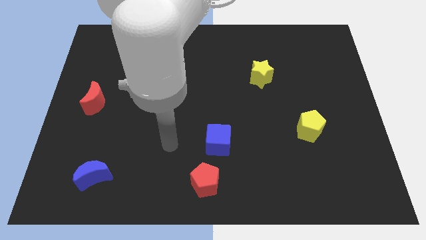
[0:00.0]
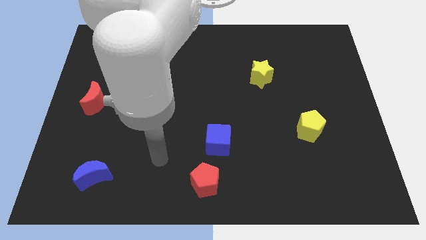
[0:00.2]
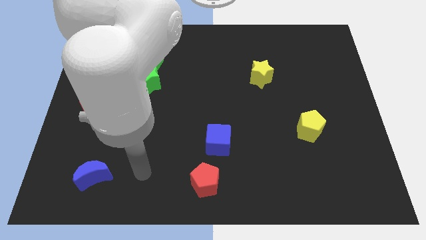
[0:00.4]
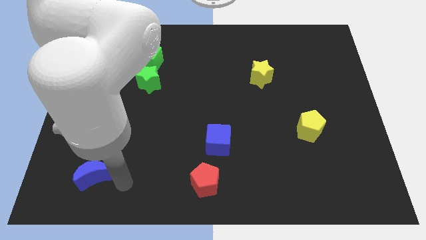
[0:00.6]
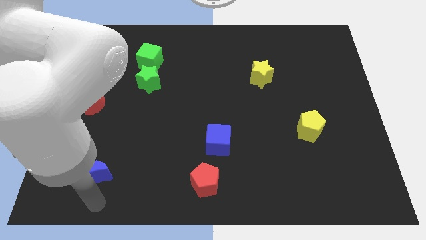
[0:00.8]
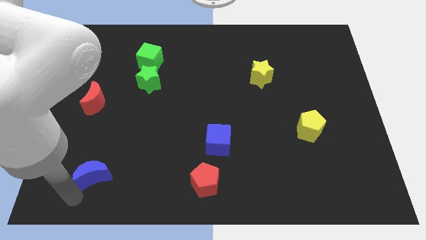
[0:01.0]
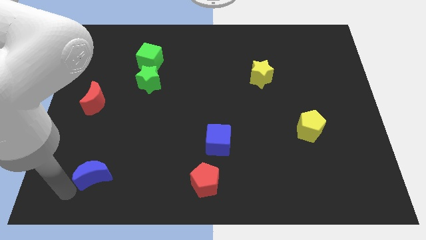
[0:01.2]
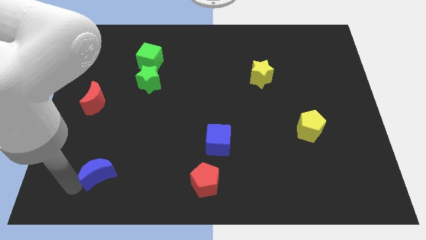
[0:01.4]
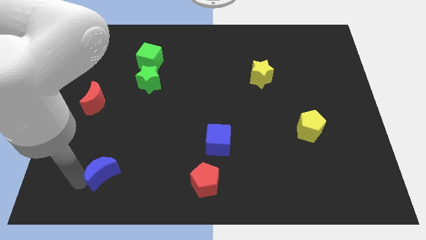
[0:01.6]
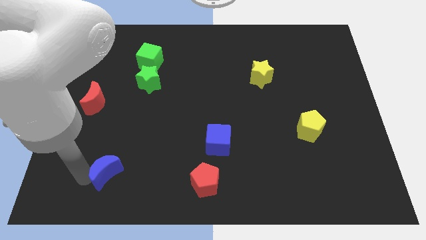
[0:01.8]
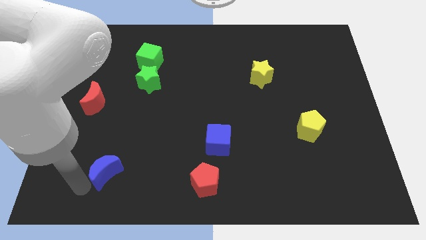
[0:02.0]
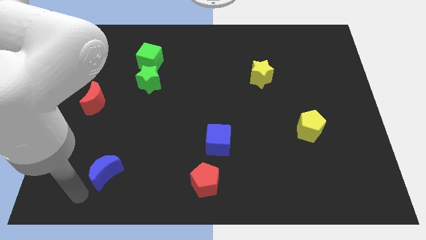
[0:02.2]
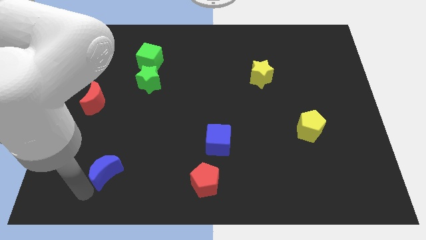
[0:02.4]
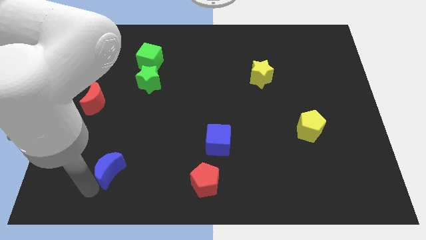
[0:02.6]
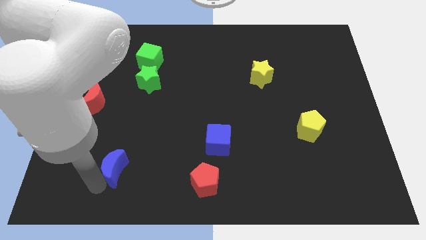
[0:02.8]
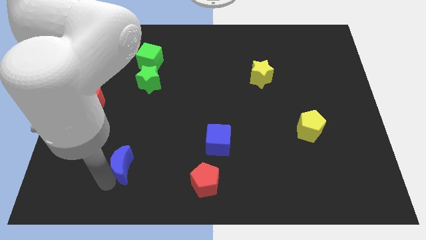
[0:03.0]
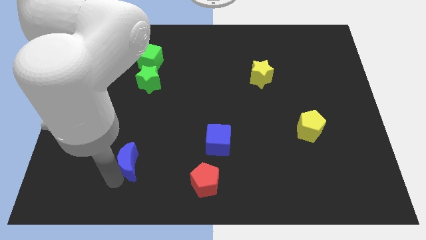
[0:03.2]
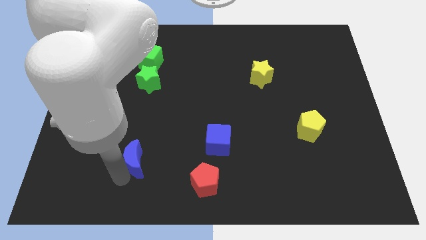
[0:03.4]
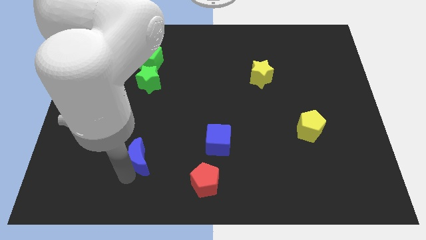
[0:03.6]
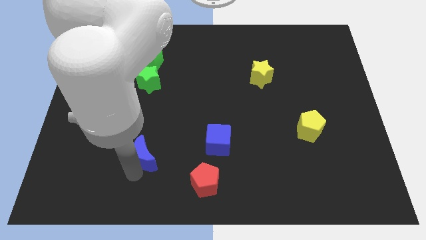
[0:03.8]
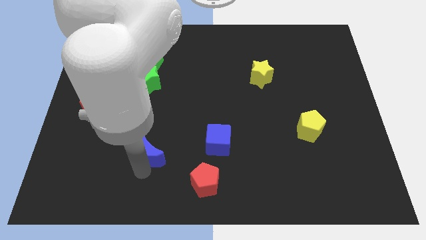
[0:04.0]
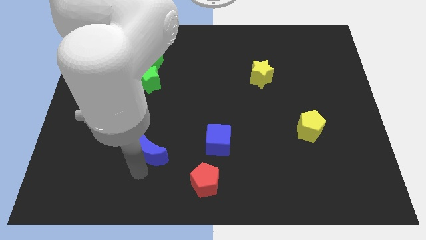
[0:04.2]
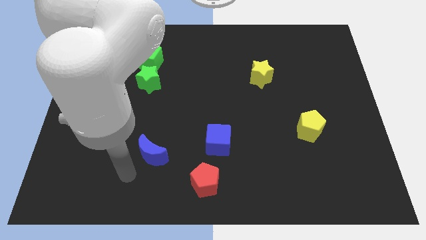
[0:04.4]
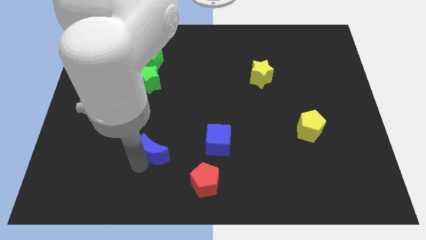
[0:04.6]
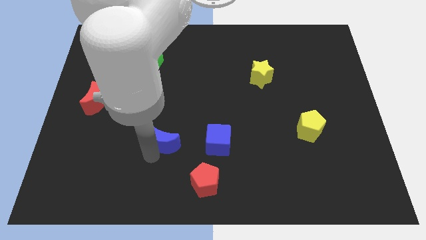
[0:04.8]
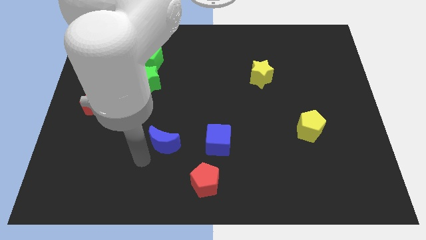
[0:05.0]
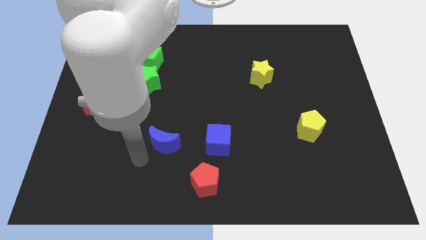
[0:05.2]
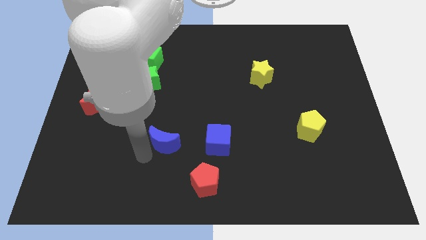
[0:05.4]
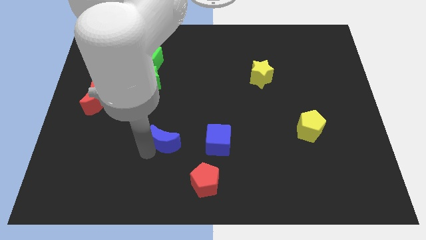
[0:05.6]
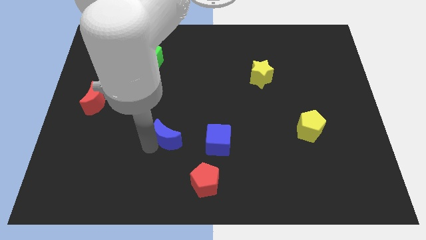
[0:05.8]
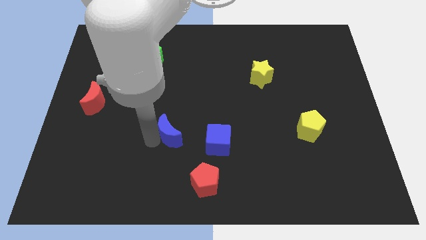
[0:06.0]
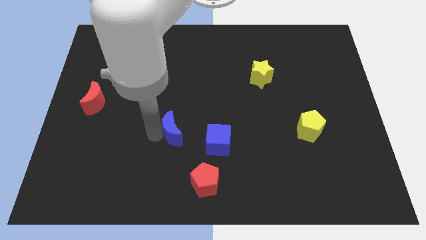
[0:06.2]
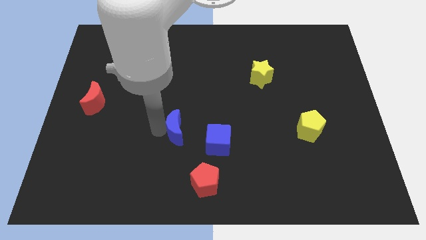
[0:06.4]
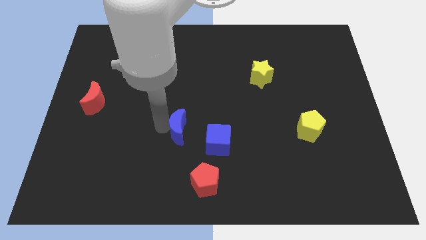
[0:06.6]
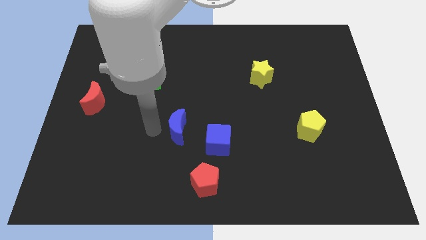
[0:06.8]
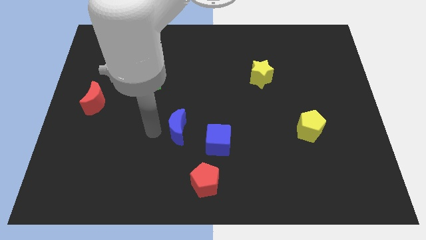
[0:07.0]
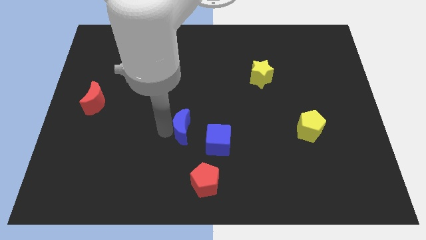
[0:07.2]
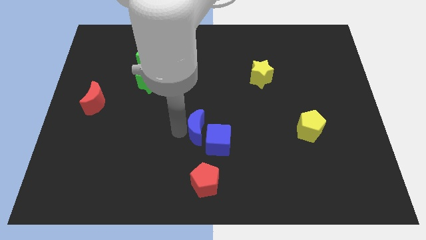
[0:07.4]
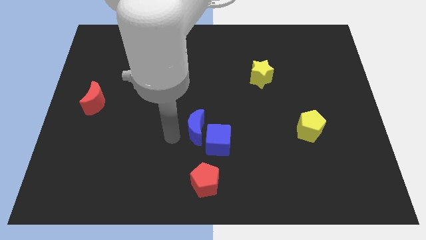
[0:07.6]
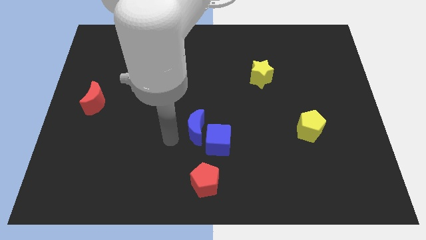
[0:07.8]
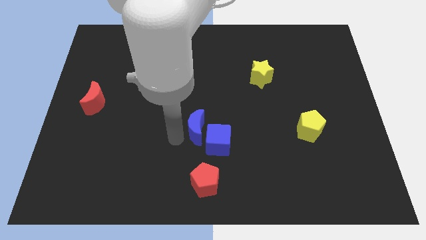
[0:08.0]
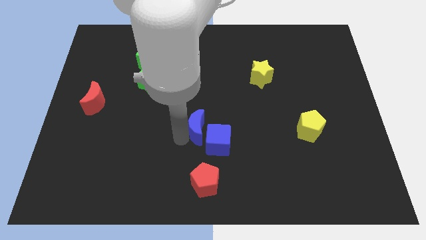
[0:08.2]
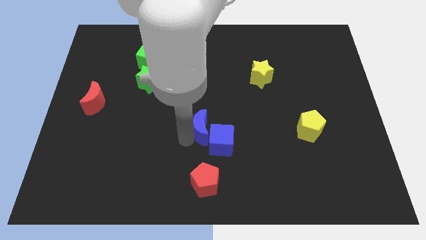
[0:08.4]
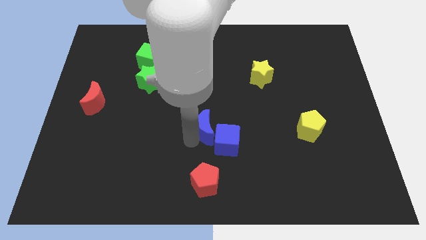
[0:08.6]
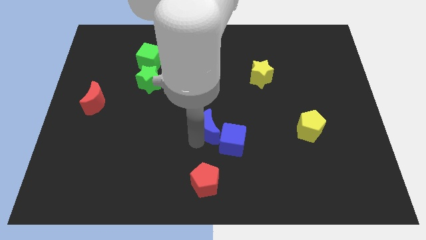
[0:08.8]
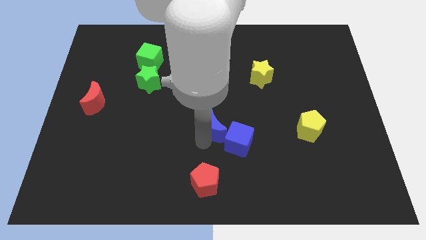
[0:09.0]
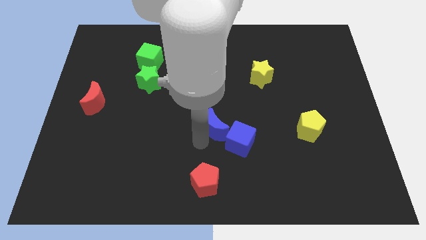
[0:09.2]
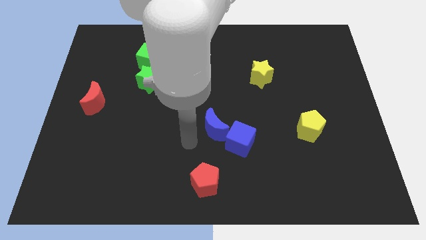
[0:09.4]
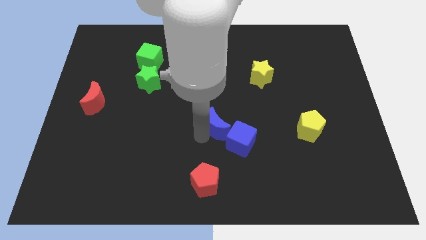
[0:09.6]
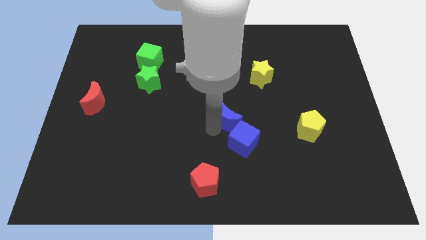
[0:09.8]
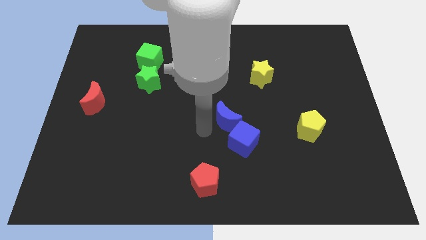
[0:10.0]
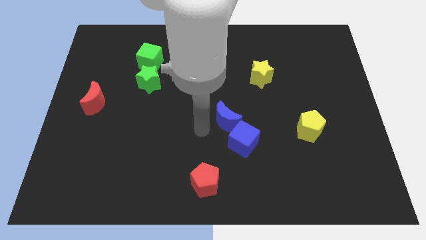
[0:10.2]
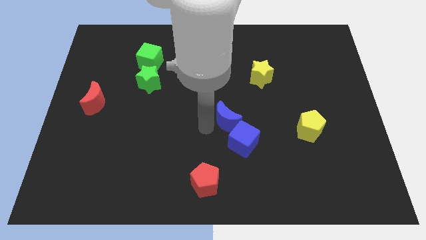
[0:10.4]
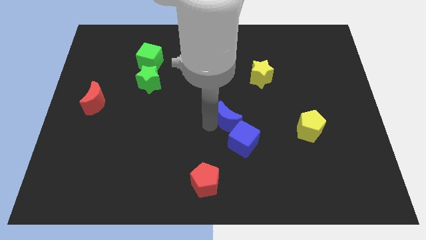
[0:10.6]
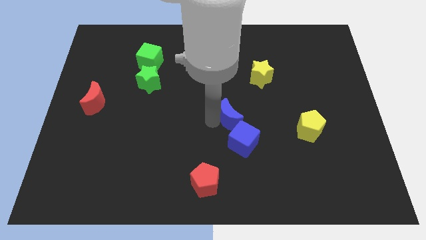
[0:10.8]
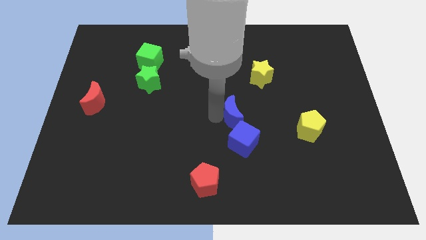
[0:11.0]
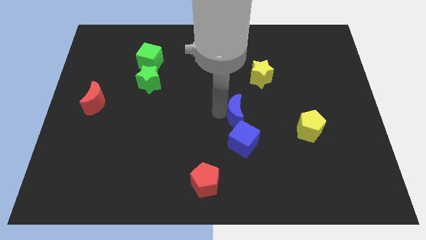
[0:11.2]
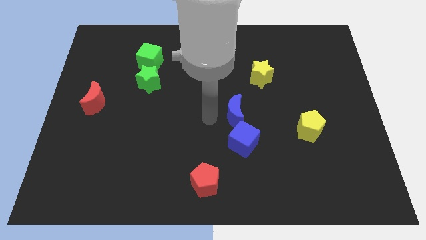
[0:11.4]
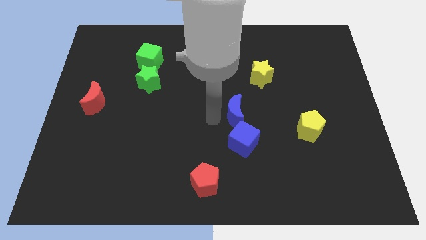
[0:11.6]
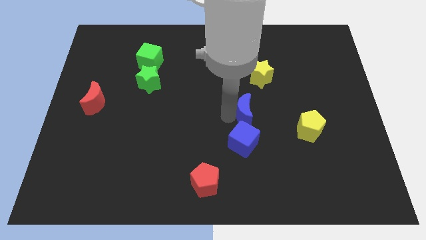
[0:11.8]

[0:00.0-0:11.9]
put the blue moon to the bottom side of the yellow star

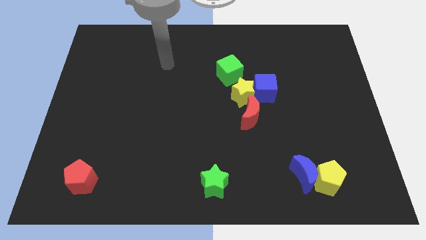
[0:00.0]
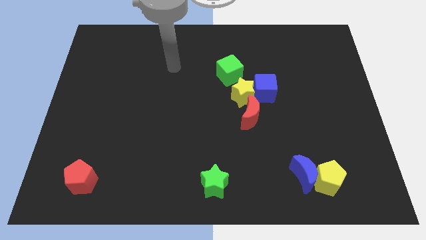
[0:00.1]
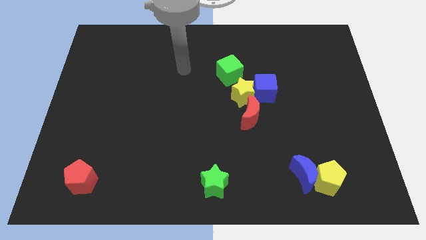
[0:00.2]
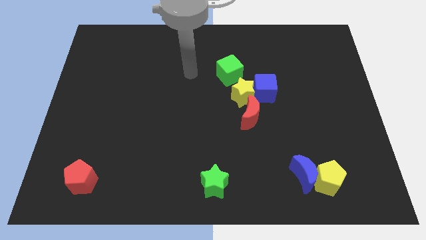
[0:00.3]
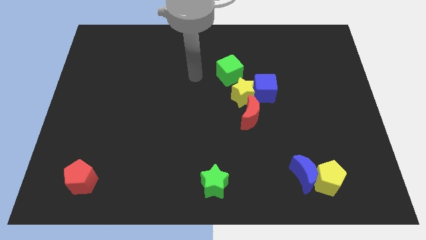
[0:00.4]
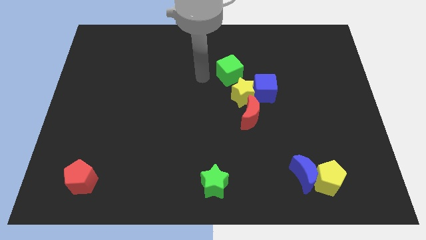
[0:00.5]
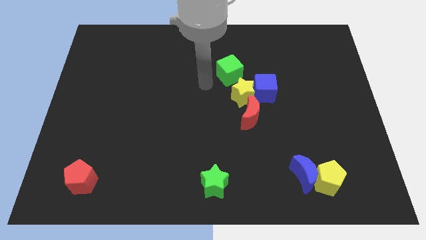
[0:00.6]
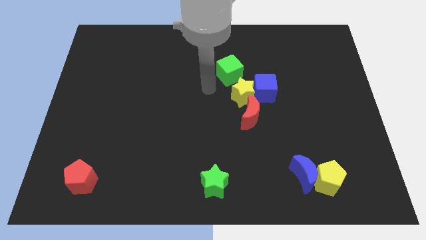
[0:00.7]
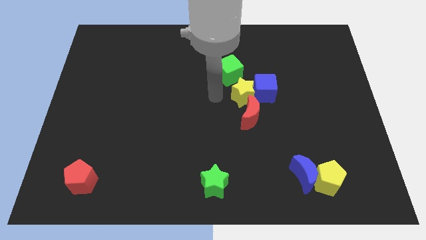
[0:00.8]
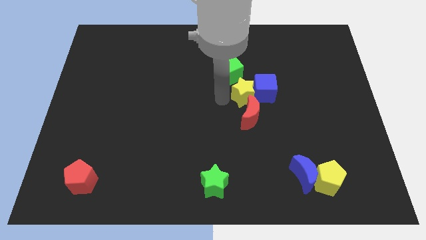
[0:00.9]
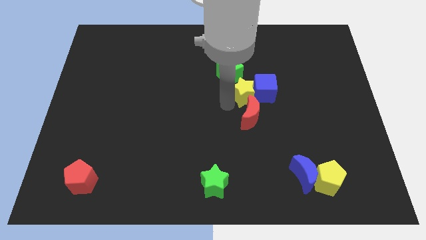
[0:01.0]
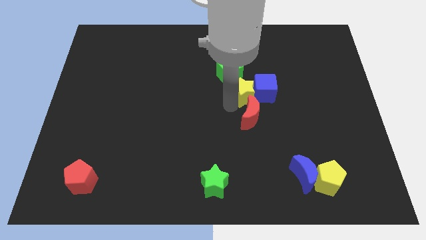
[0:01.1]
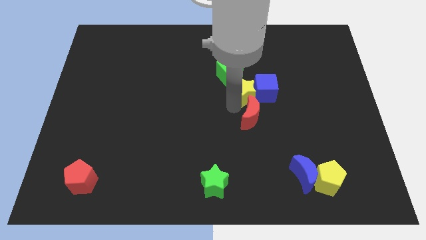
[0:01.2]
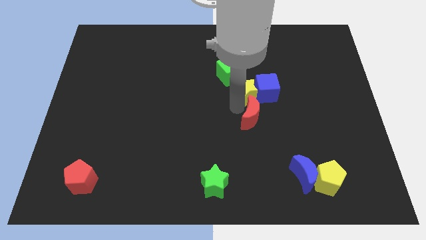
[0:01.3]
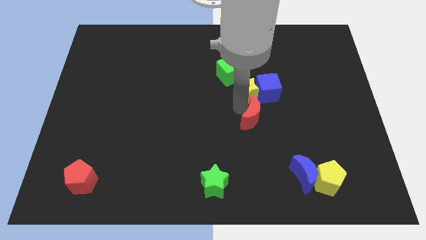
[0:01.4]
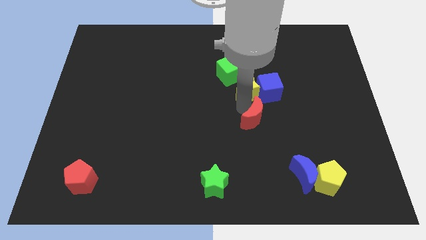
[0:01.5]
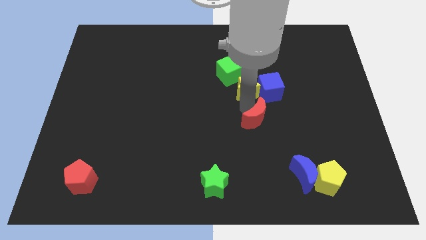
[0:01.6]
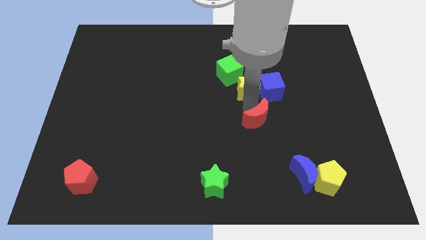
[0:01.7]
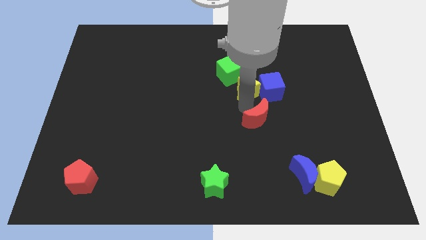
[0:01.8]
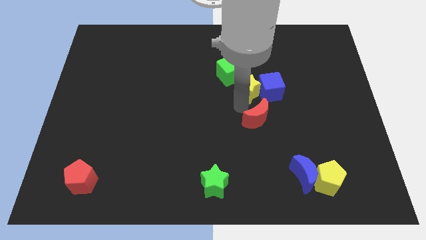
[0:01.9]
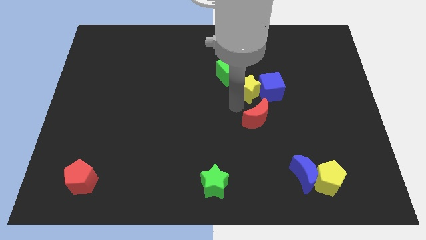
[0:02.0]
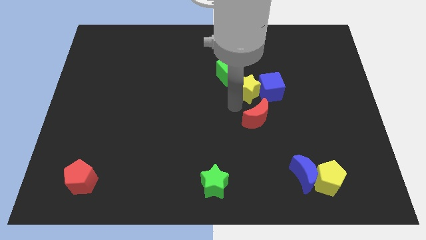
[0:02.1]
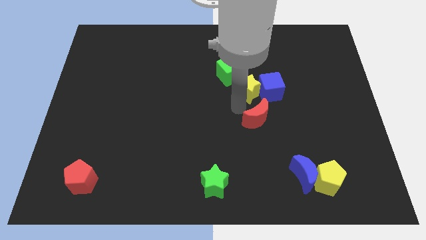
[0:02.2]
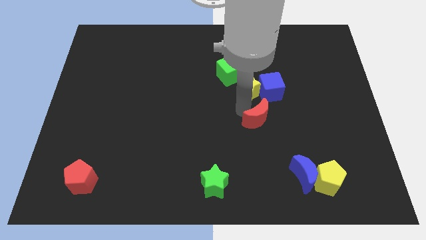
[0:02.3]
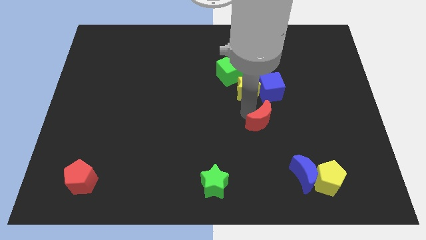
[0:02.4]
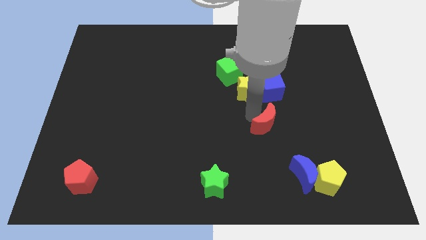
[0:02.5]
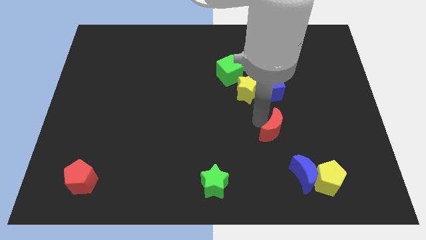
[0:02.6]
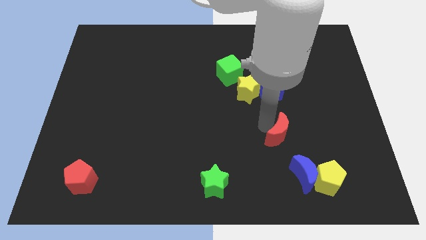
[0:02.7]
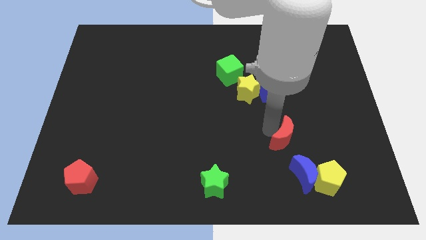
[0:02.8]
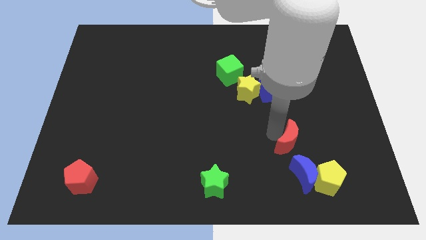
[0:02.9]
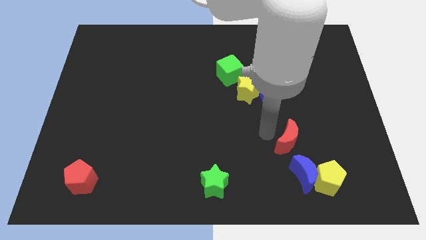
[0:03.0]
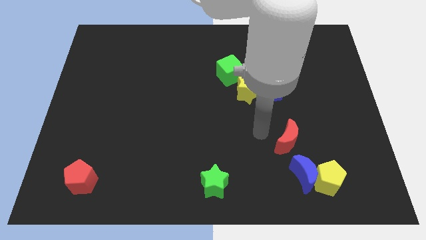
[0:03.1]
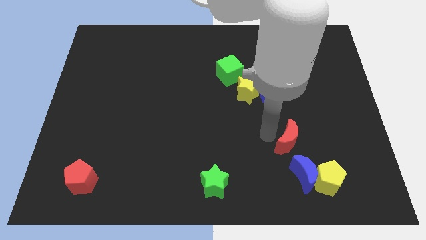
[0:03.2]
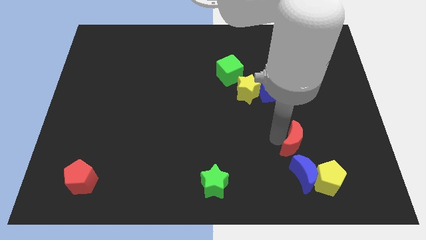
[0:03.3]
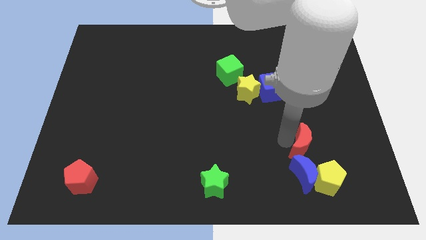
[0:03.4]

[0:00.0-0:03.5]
put the red moon to the top right of the blue moon
